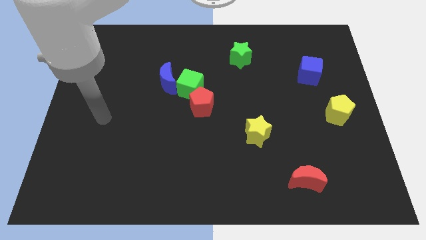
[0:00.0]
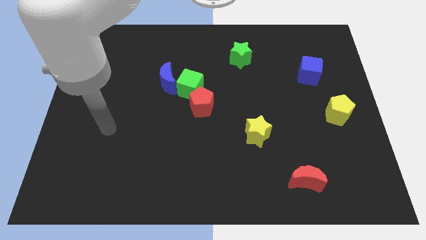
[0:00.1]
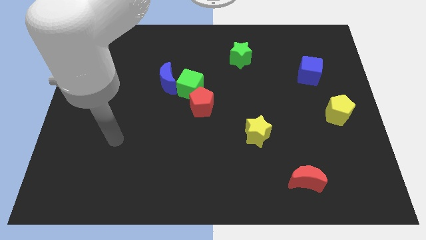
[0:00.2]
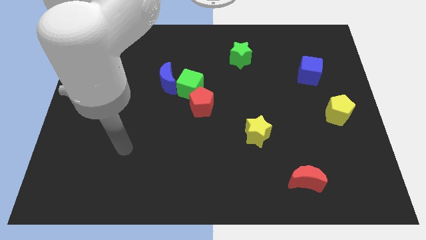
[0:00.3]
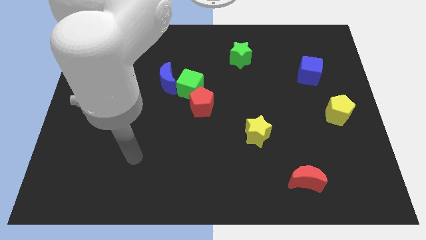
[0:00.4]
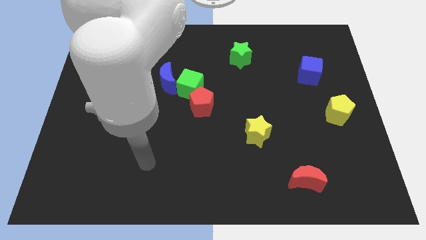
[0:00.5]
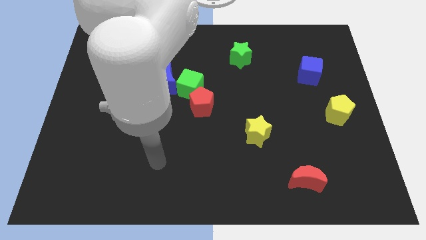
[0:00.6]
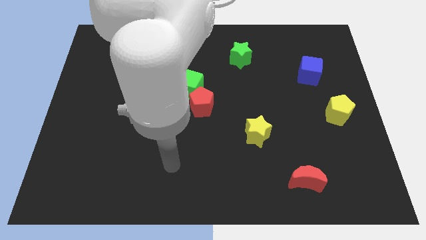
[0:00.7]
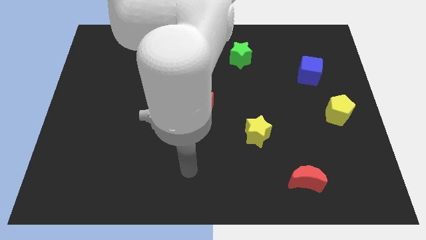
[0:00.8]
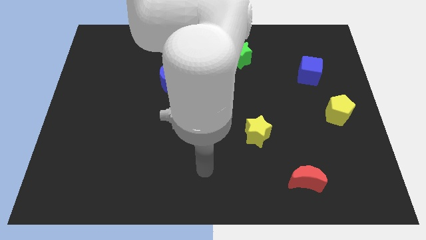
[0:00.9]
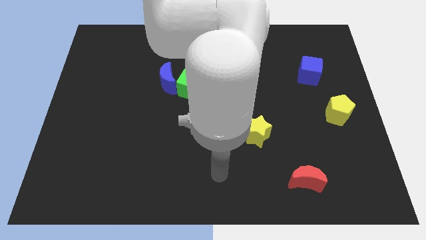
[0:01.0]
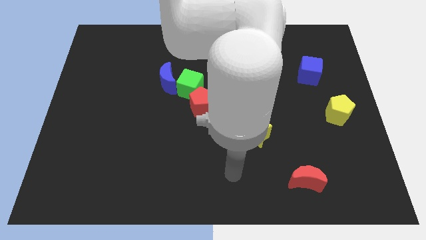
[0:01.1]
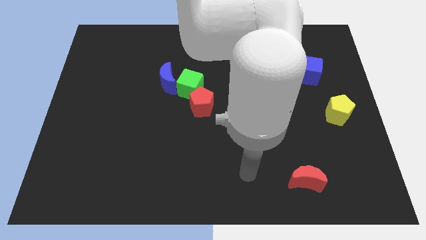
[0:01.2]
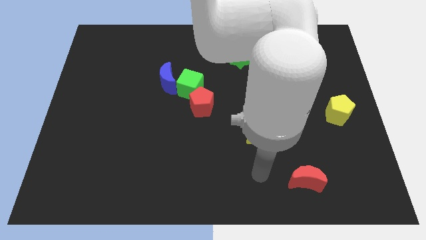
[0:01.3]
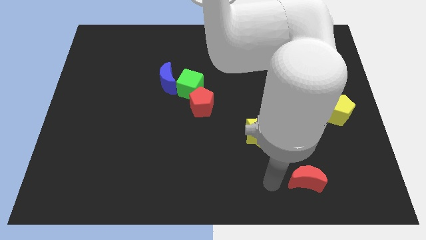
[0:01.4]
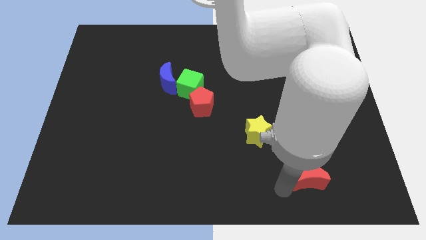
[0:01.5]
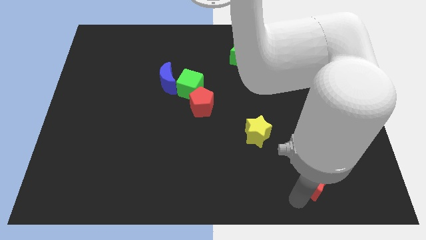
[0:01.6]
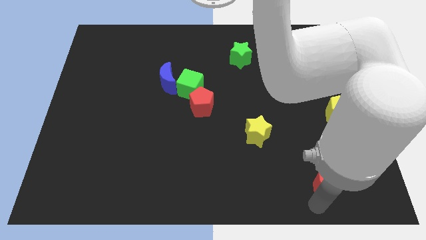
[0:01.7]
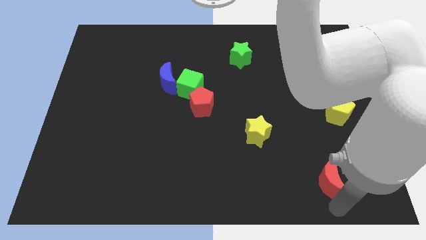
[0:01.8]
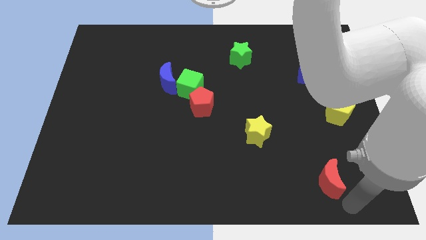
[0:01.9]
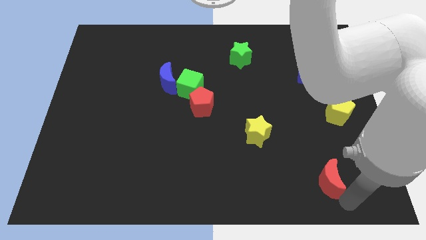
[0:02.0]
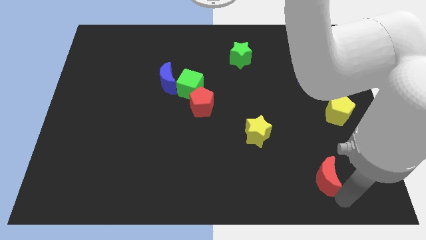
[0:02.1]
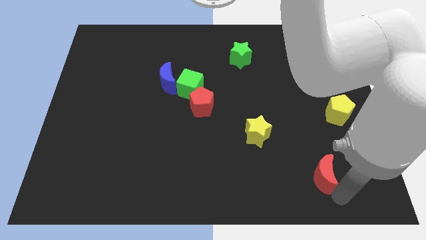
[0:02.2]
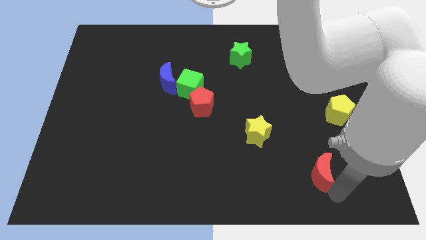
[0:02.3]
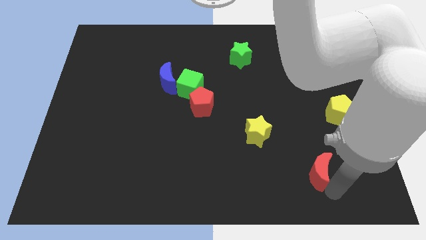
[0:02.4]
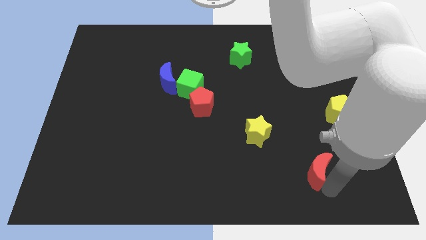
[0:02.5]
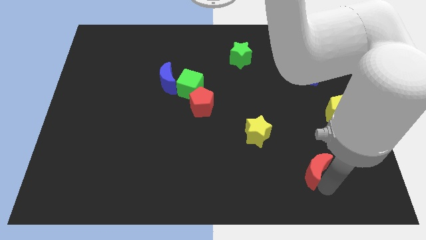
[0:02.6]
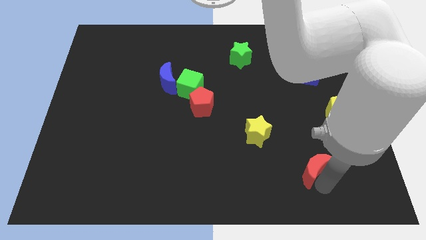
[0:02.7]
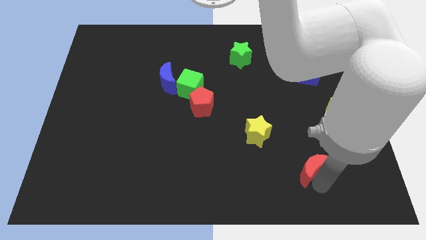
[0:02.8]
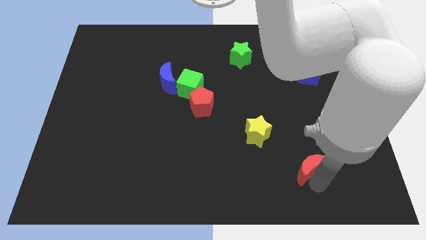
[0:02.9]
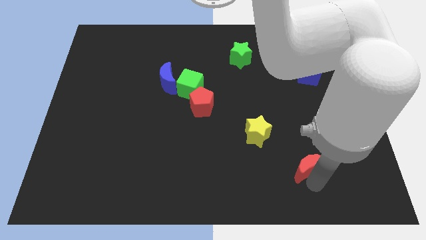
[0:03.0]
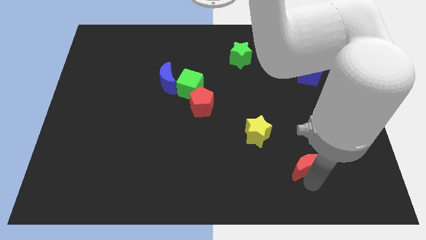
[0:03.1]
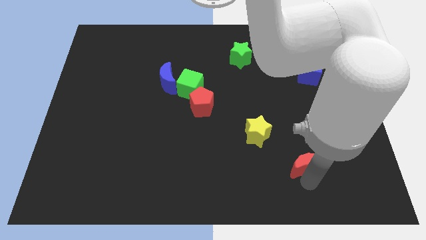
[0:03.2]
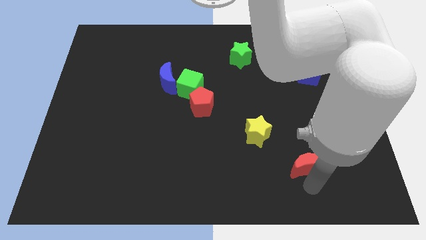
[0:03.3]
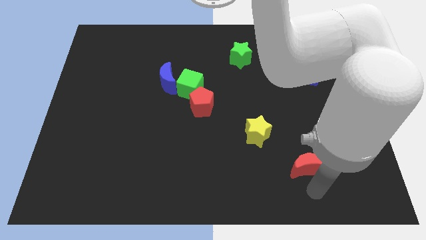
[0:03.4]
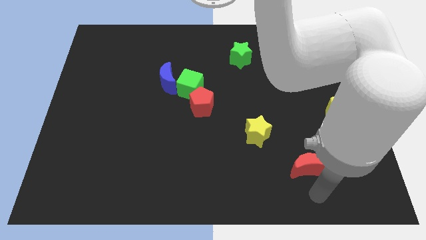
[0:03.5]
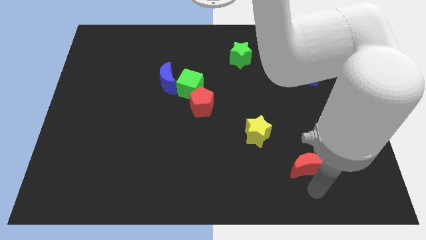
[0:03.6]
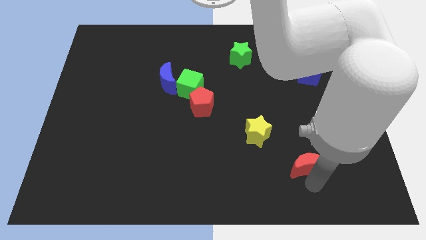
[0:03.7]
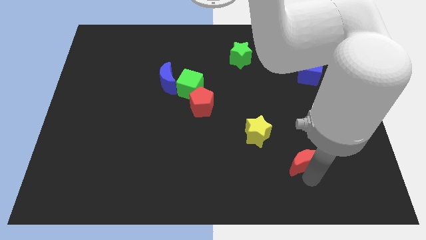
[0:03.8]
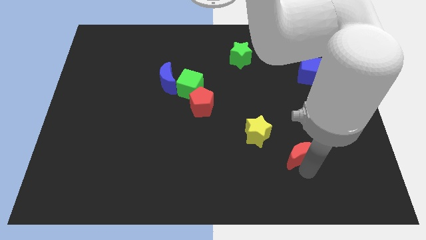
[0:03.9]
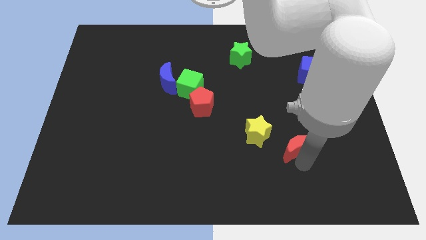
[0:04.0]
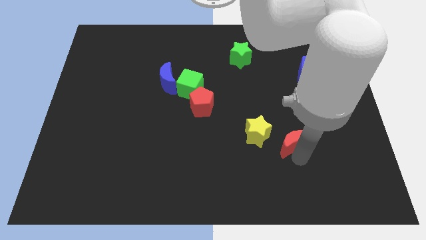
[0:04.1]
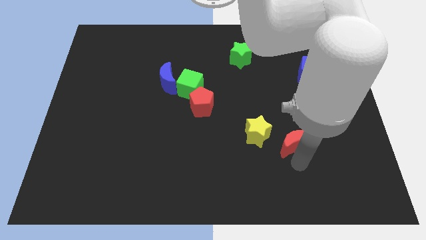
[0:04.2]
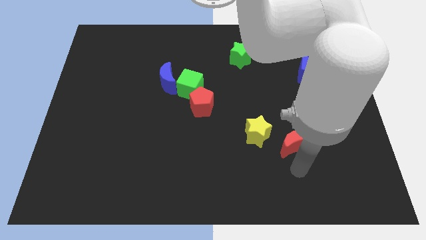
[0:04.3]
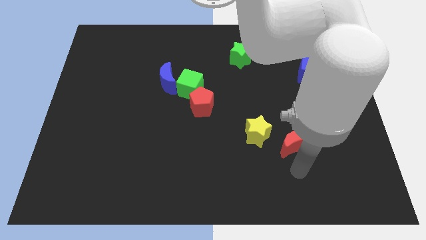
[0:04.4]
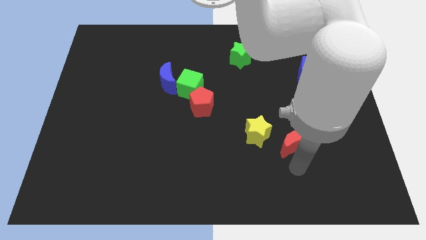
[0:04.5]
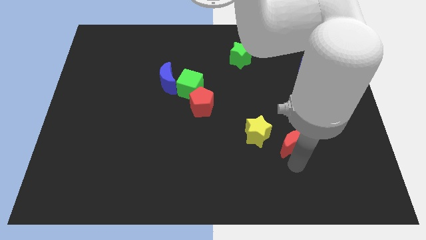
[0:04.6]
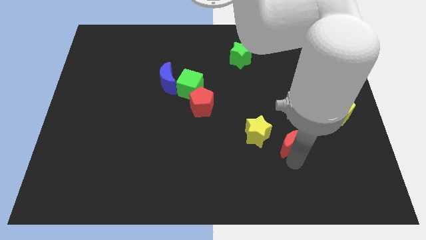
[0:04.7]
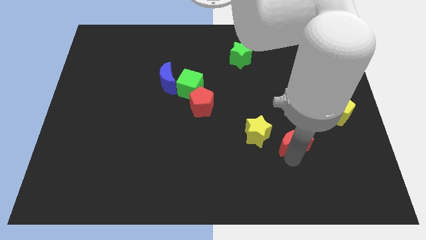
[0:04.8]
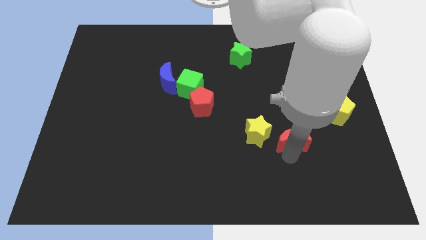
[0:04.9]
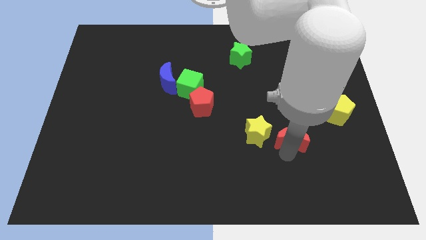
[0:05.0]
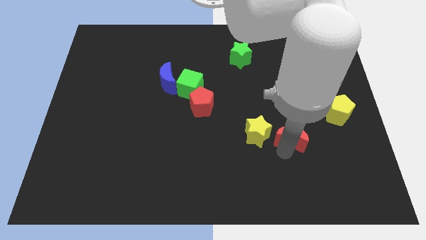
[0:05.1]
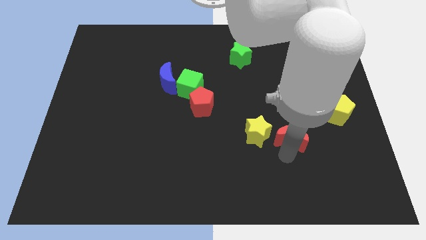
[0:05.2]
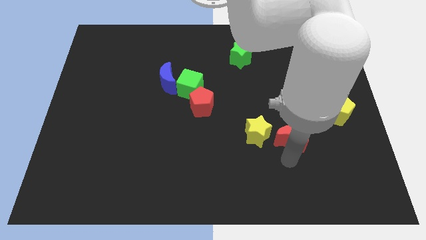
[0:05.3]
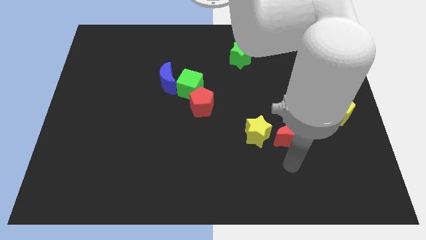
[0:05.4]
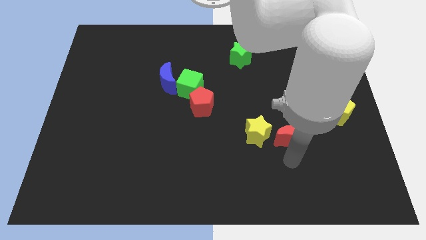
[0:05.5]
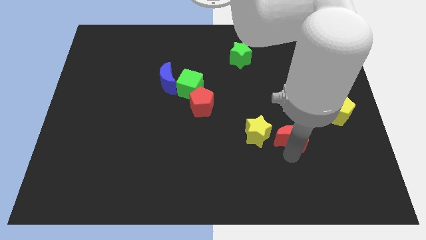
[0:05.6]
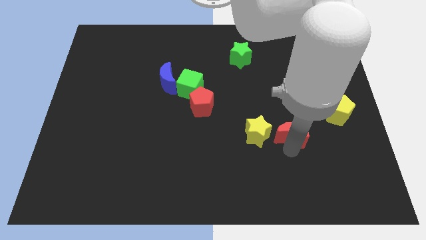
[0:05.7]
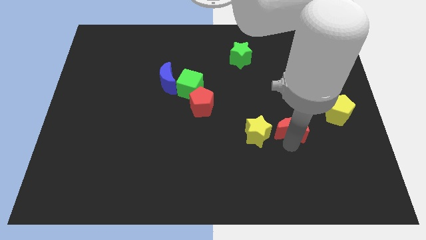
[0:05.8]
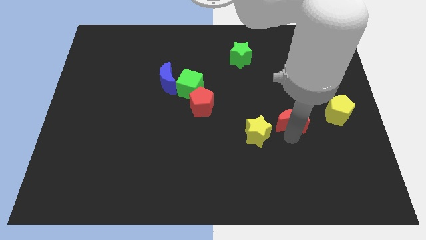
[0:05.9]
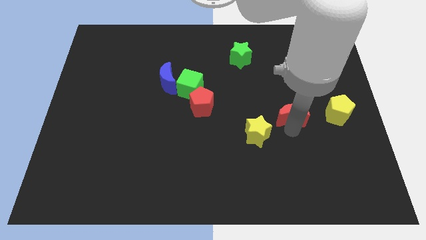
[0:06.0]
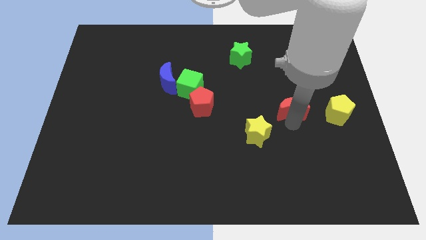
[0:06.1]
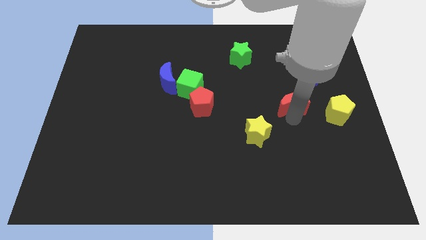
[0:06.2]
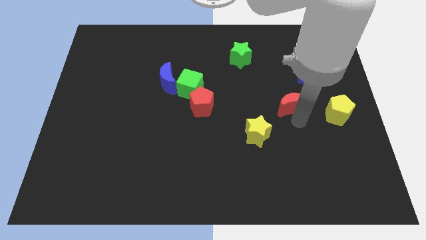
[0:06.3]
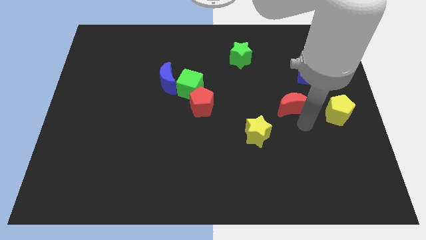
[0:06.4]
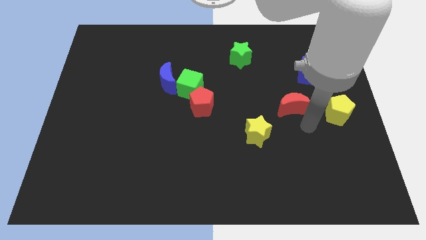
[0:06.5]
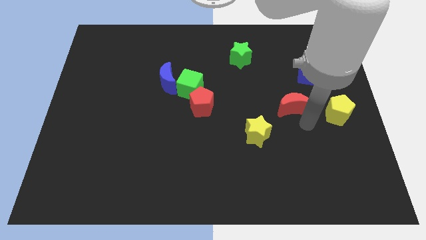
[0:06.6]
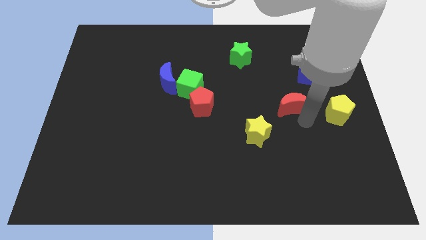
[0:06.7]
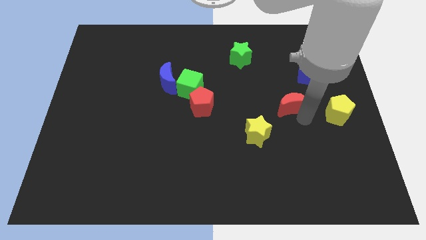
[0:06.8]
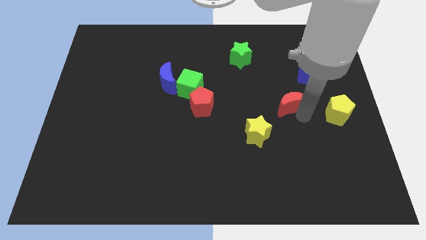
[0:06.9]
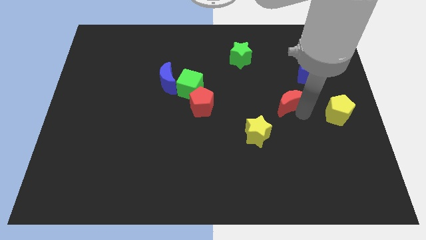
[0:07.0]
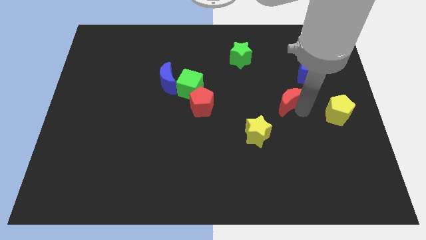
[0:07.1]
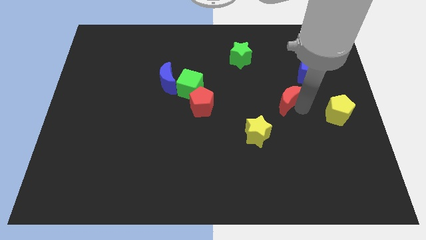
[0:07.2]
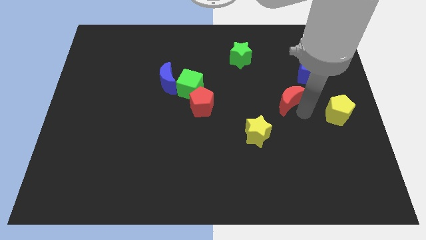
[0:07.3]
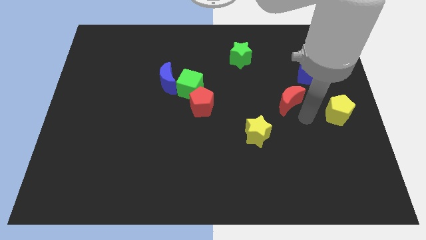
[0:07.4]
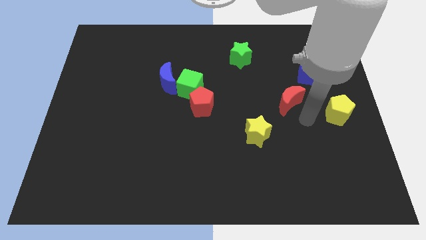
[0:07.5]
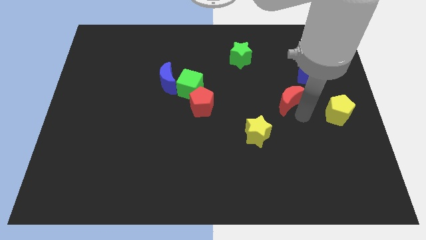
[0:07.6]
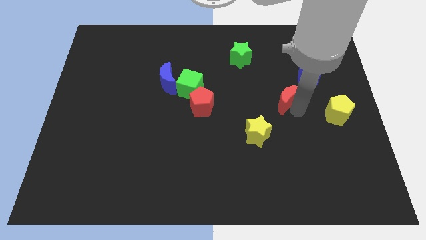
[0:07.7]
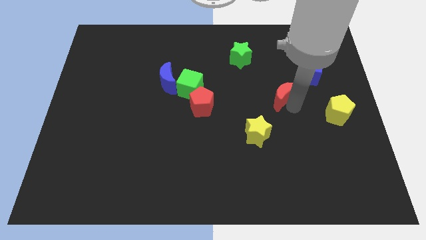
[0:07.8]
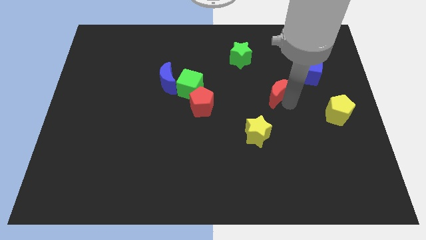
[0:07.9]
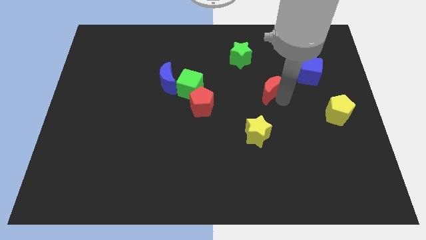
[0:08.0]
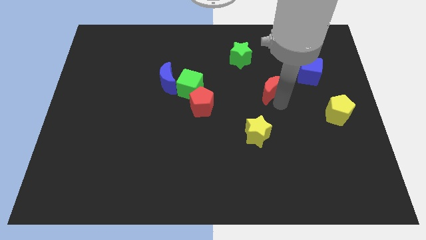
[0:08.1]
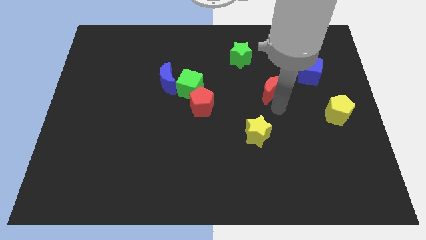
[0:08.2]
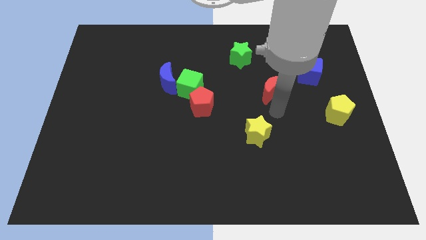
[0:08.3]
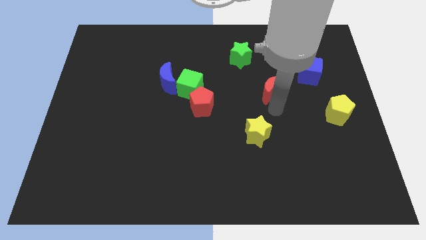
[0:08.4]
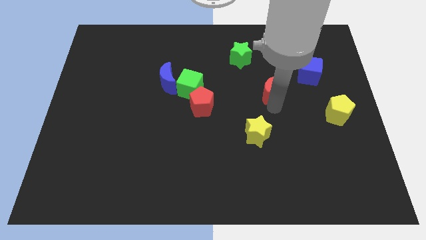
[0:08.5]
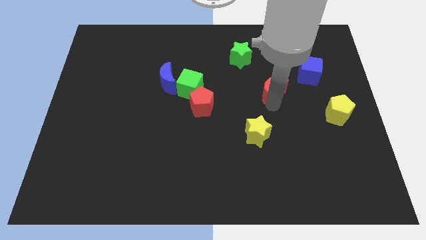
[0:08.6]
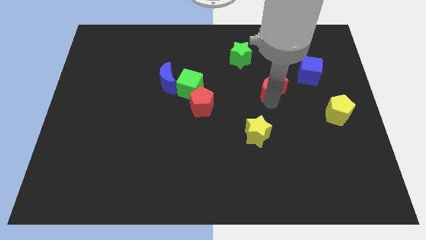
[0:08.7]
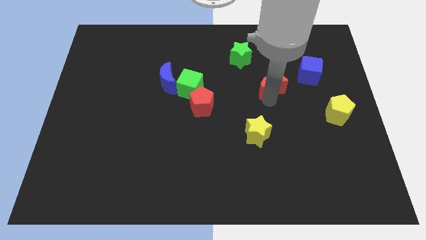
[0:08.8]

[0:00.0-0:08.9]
put the red moon to the left of the blue cube
